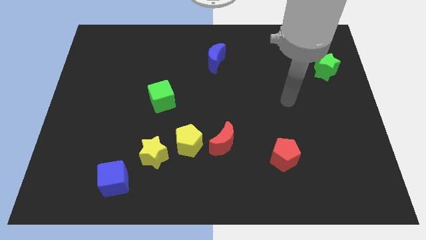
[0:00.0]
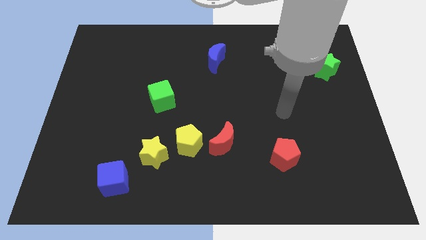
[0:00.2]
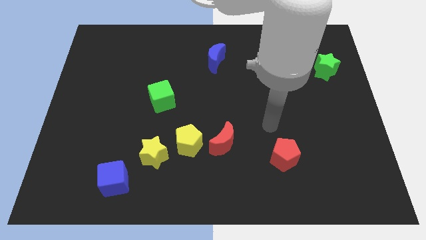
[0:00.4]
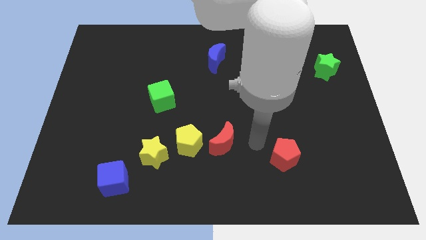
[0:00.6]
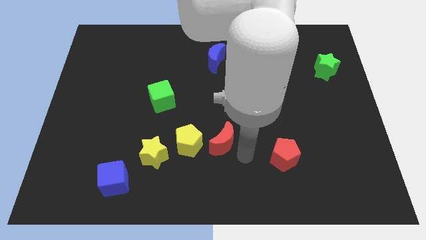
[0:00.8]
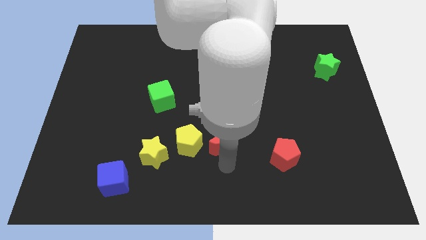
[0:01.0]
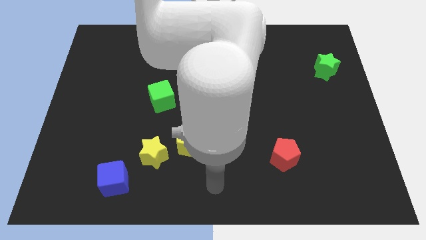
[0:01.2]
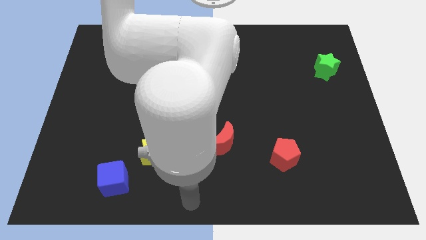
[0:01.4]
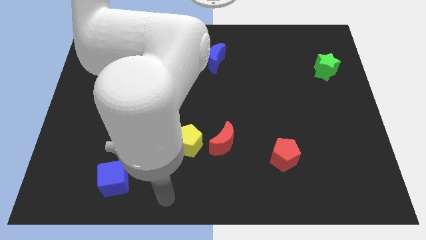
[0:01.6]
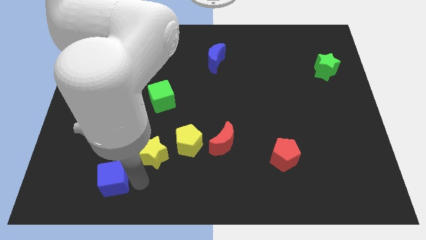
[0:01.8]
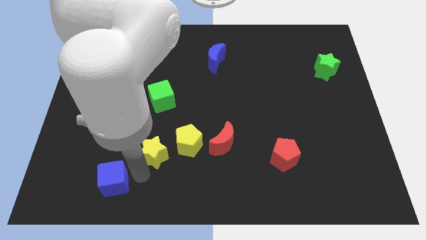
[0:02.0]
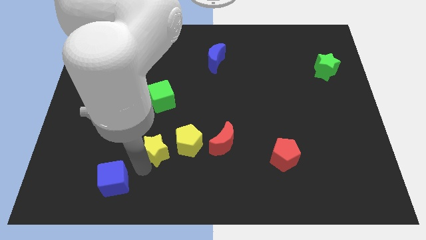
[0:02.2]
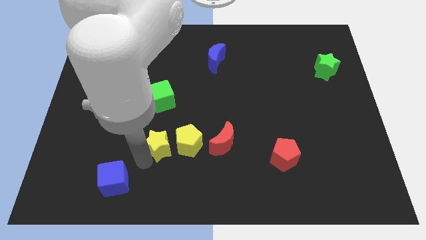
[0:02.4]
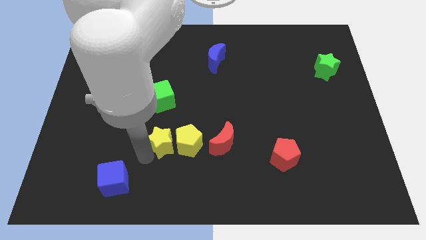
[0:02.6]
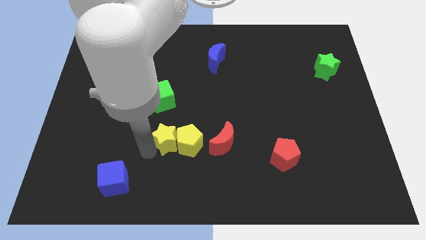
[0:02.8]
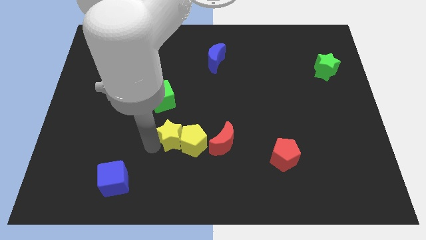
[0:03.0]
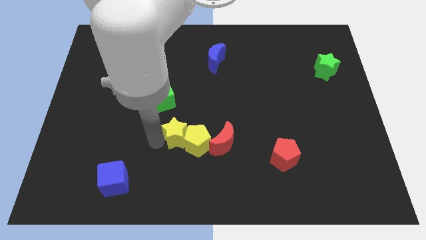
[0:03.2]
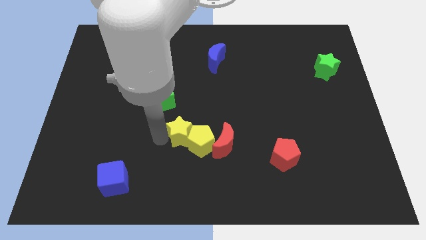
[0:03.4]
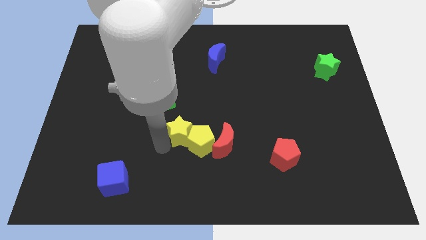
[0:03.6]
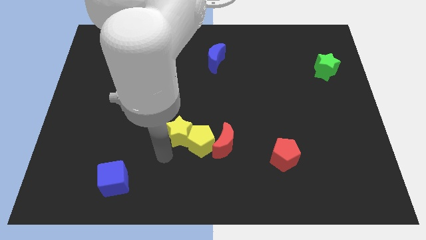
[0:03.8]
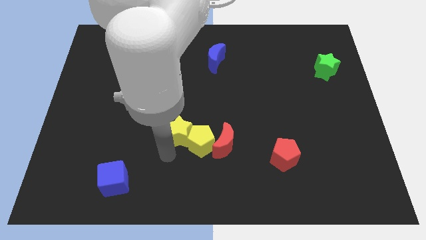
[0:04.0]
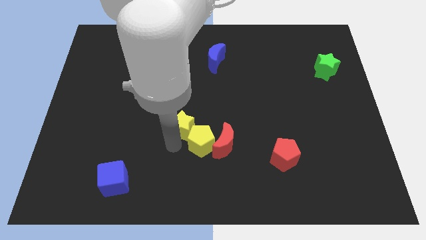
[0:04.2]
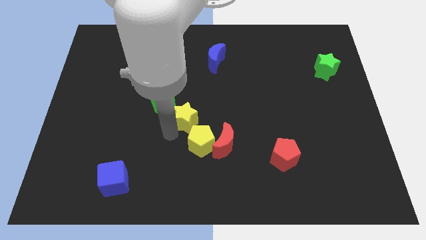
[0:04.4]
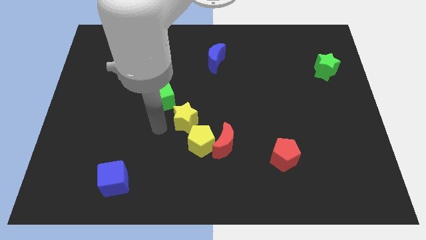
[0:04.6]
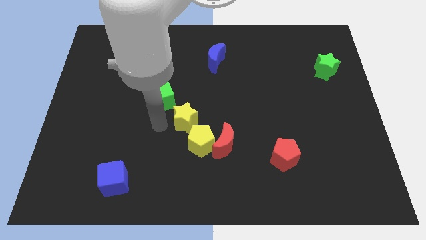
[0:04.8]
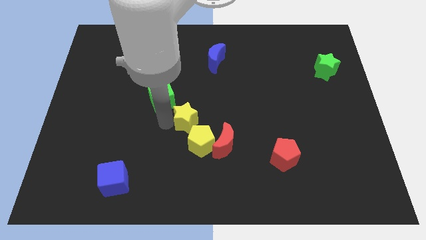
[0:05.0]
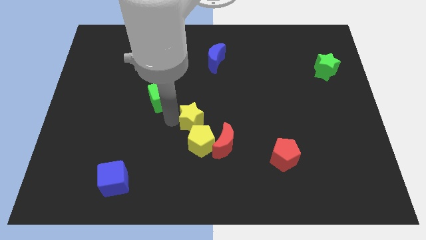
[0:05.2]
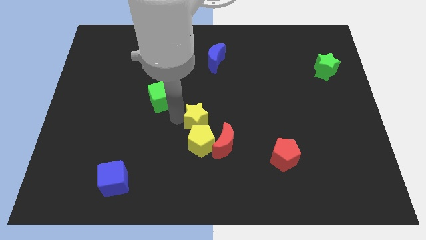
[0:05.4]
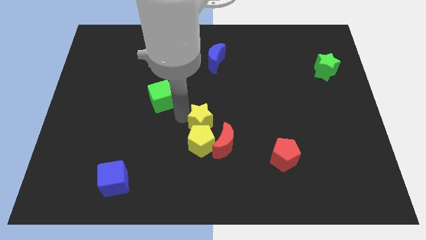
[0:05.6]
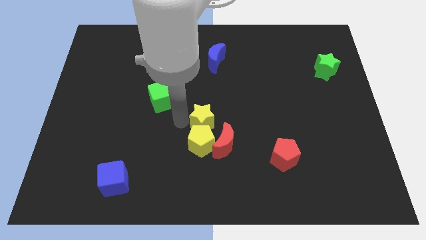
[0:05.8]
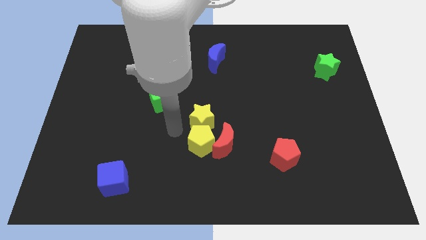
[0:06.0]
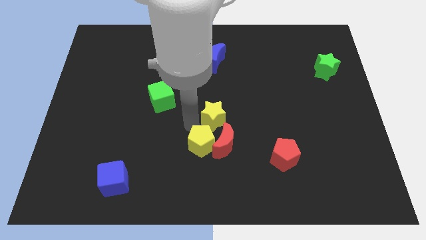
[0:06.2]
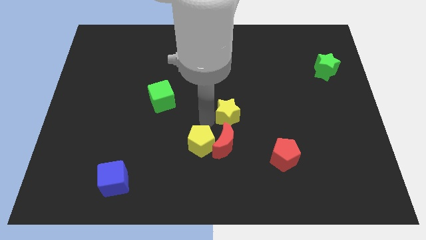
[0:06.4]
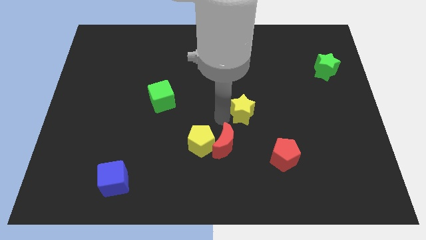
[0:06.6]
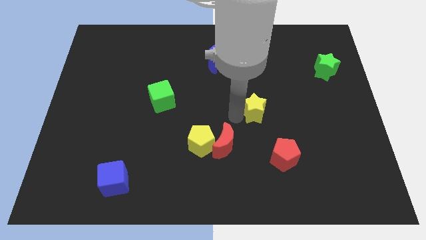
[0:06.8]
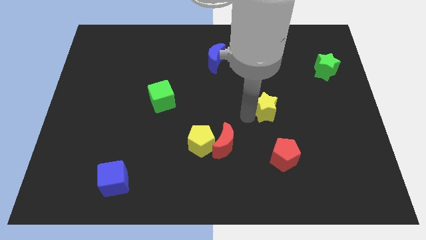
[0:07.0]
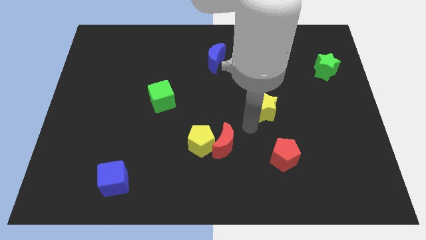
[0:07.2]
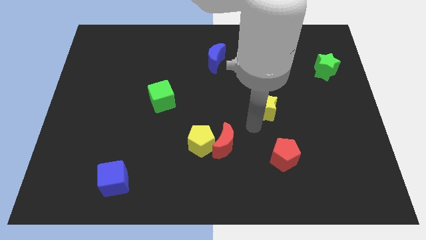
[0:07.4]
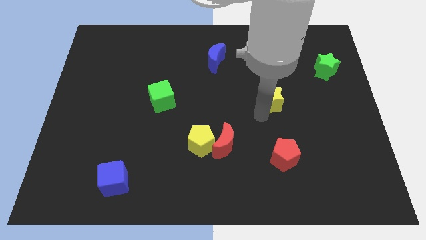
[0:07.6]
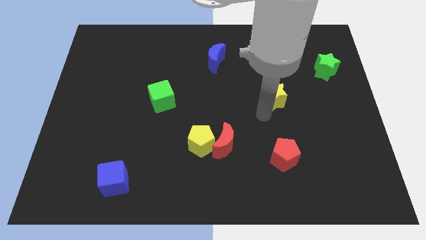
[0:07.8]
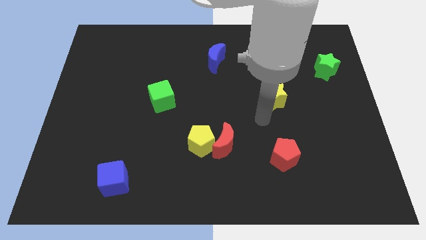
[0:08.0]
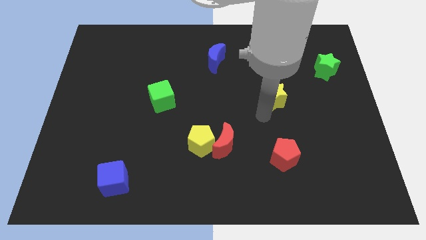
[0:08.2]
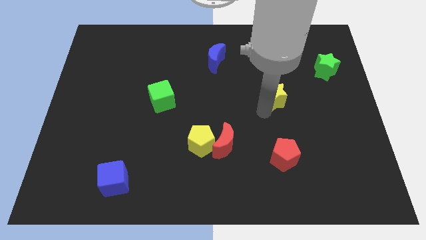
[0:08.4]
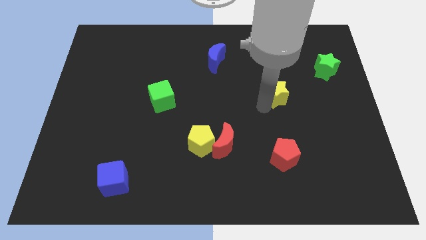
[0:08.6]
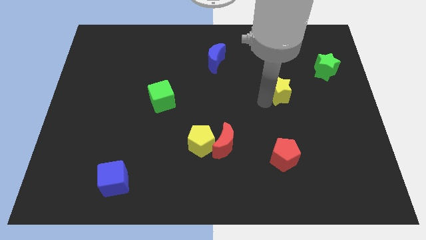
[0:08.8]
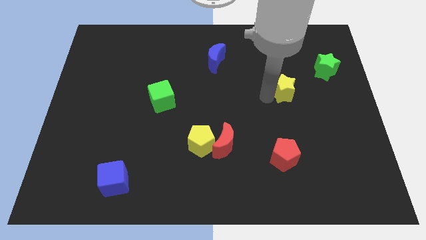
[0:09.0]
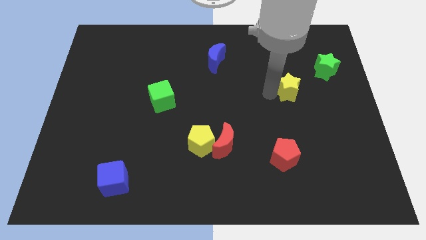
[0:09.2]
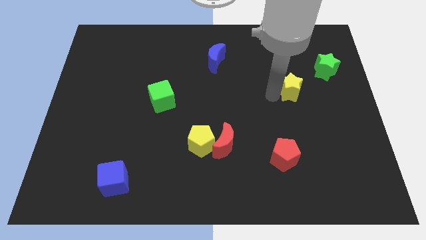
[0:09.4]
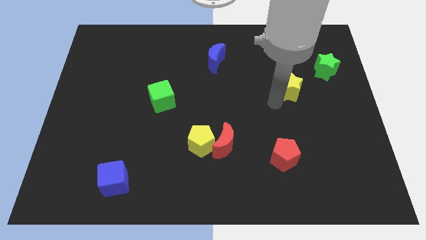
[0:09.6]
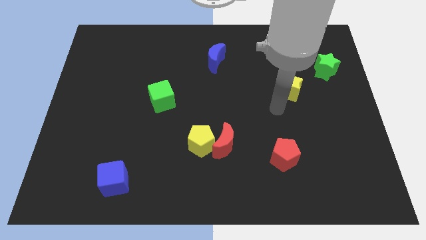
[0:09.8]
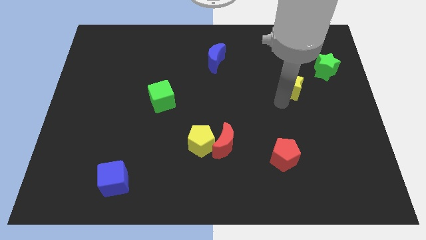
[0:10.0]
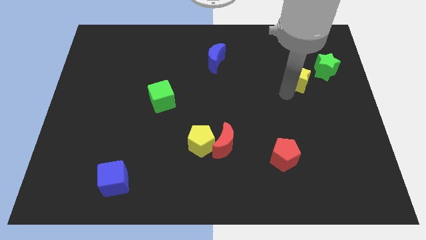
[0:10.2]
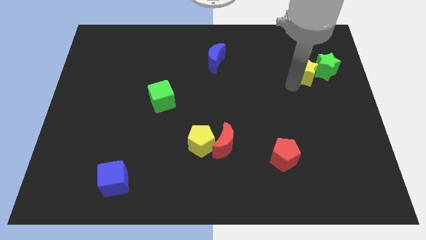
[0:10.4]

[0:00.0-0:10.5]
push the yellow star next to the green star
